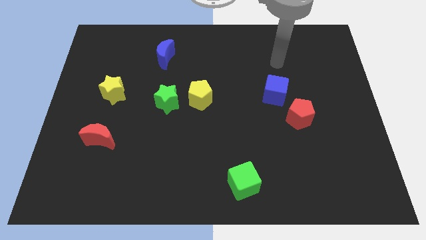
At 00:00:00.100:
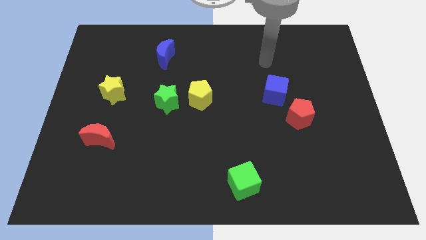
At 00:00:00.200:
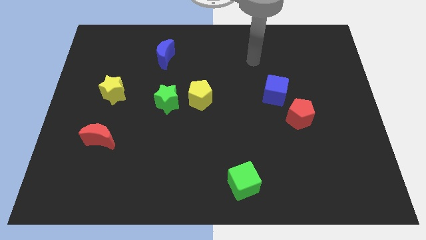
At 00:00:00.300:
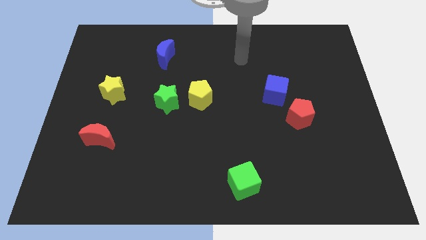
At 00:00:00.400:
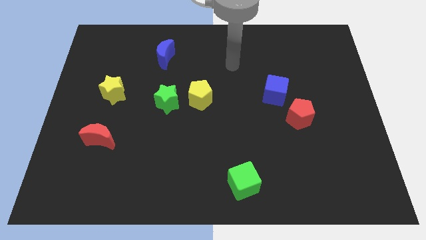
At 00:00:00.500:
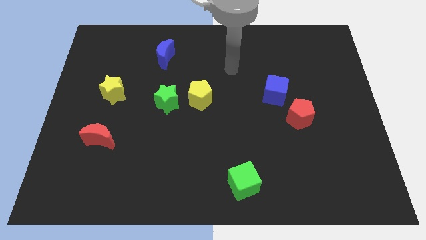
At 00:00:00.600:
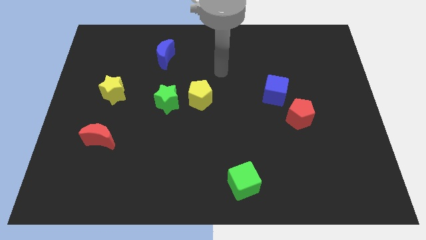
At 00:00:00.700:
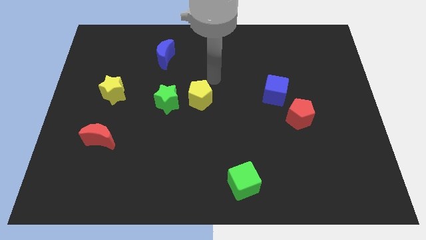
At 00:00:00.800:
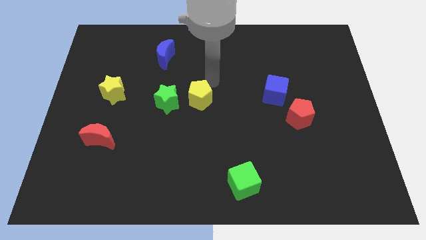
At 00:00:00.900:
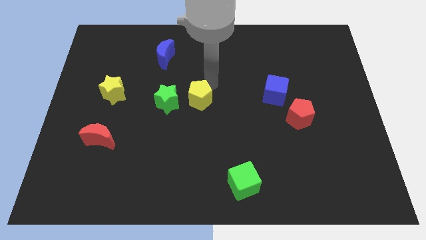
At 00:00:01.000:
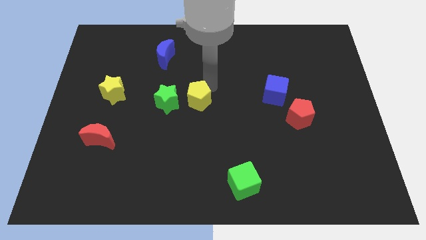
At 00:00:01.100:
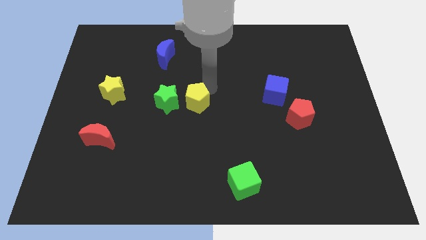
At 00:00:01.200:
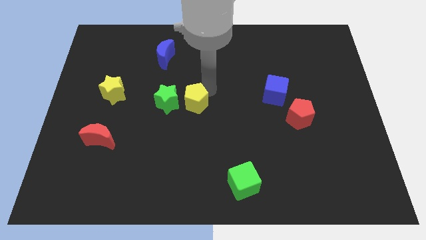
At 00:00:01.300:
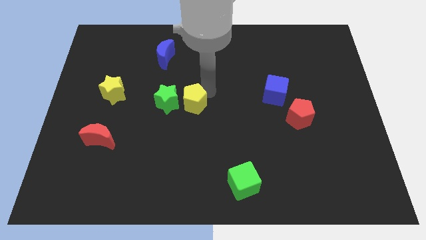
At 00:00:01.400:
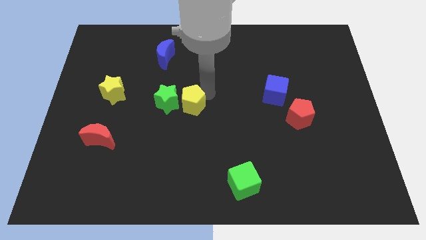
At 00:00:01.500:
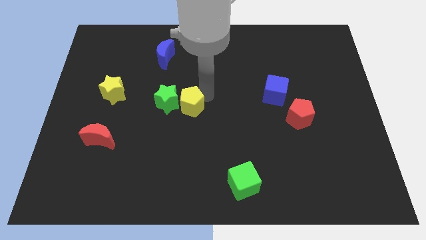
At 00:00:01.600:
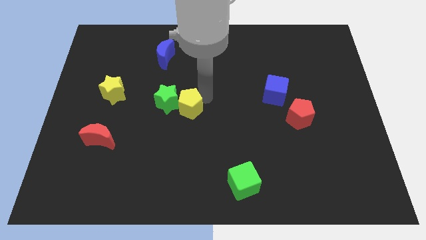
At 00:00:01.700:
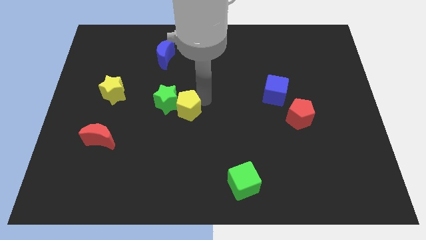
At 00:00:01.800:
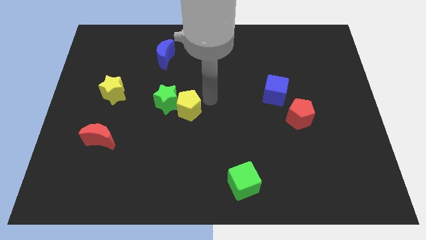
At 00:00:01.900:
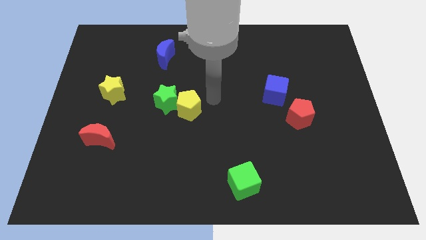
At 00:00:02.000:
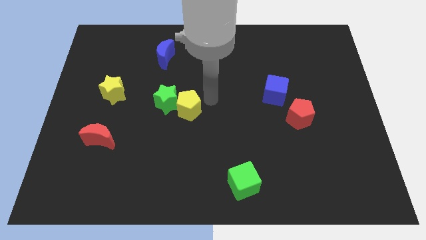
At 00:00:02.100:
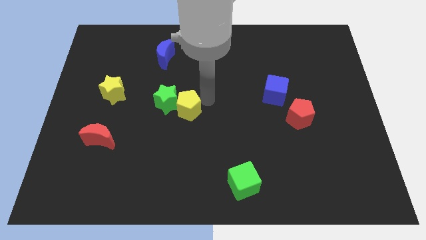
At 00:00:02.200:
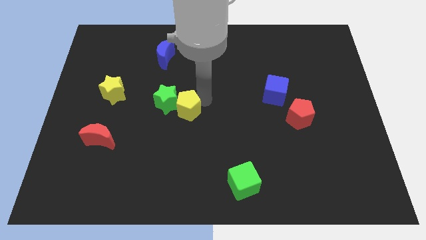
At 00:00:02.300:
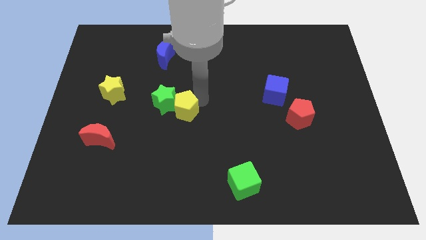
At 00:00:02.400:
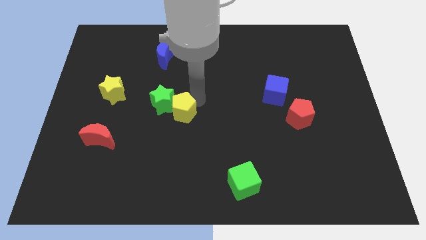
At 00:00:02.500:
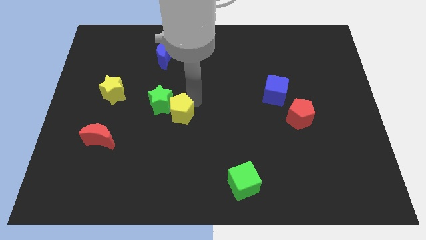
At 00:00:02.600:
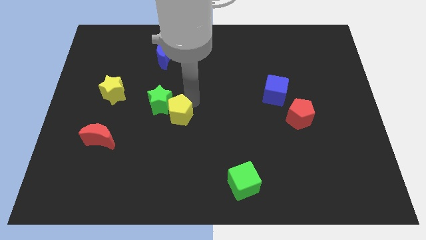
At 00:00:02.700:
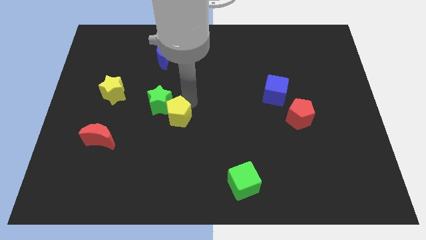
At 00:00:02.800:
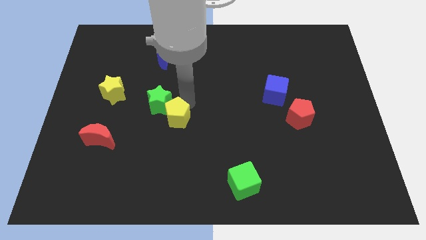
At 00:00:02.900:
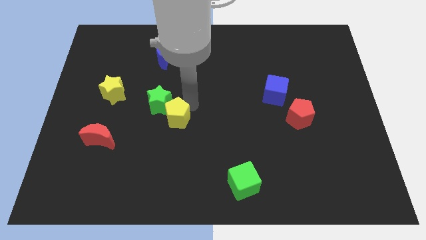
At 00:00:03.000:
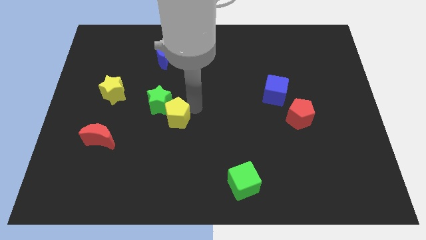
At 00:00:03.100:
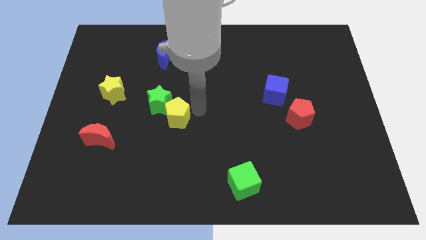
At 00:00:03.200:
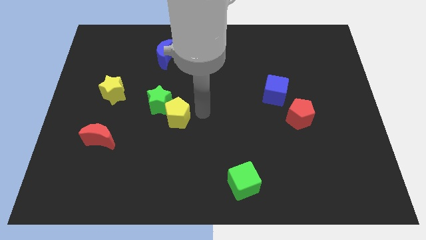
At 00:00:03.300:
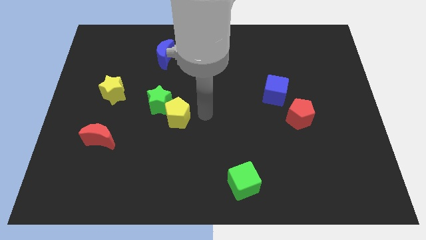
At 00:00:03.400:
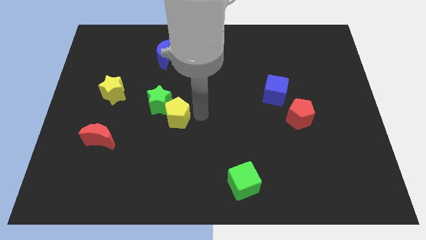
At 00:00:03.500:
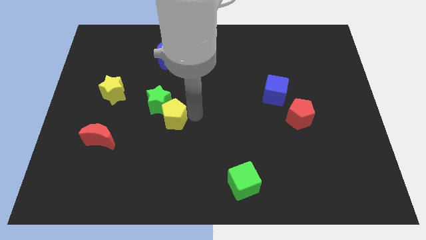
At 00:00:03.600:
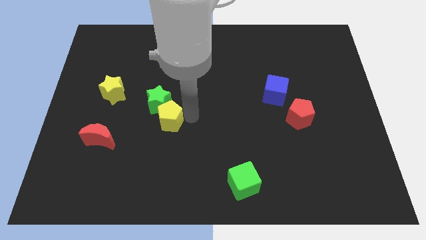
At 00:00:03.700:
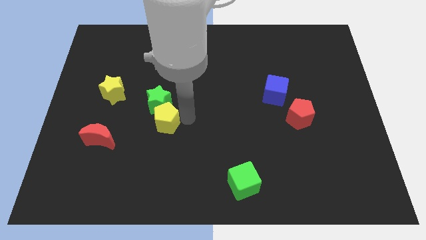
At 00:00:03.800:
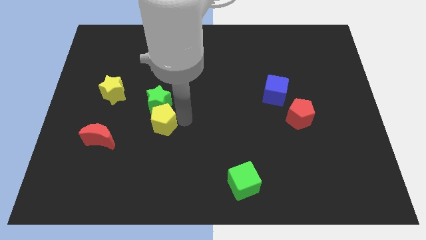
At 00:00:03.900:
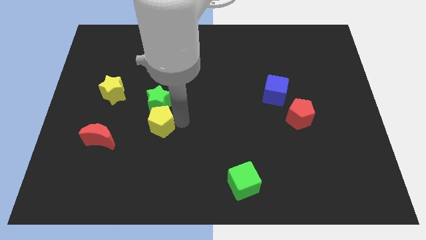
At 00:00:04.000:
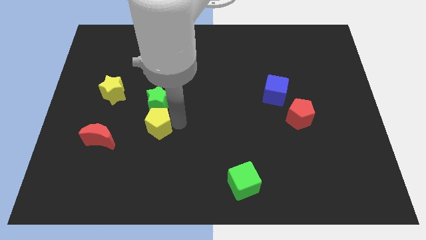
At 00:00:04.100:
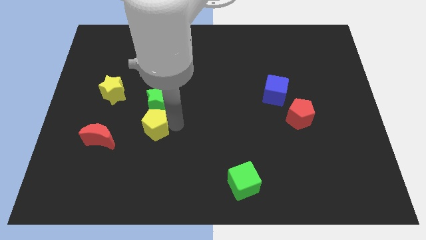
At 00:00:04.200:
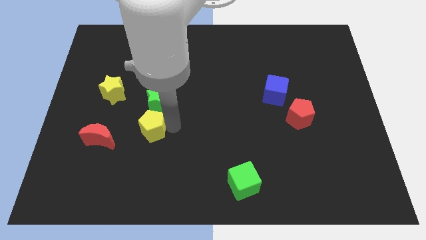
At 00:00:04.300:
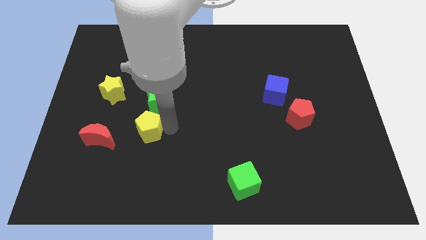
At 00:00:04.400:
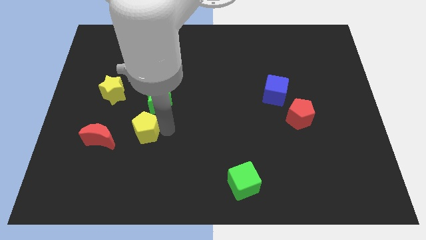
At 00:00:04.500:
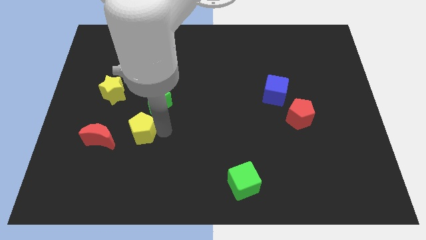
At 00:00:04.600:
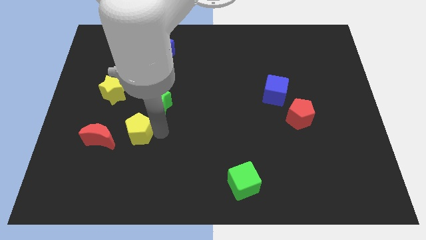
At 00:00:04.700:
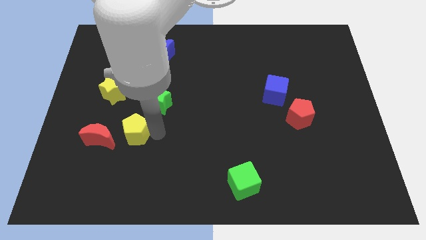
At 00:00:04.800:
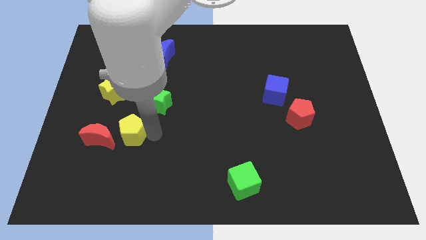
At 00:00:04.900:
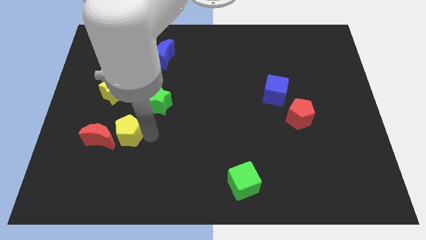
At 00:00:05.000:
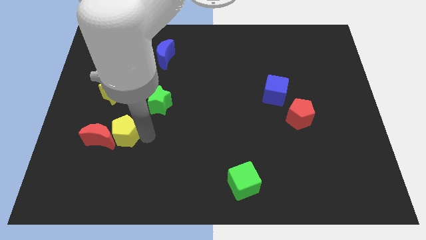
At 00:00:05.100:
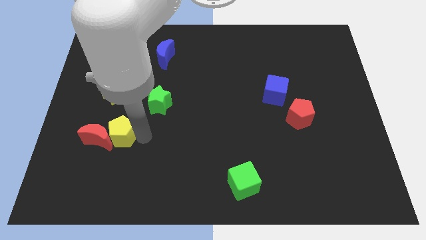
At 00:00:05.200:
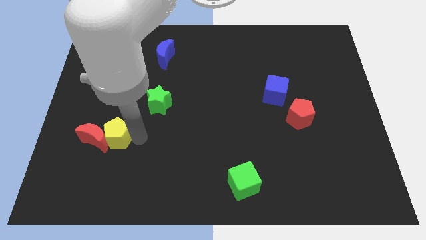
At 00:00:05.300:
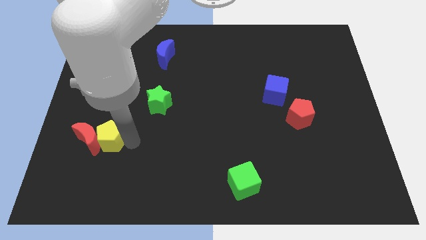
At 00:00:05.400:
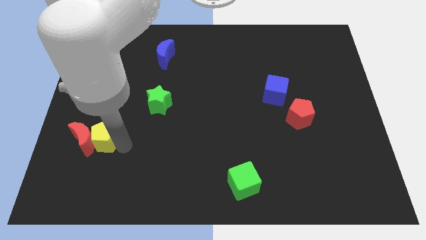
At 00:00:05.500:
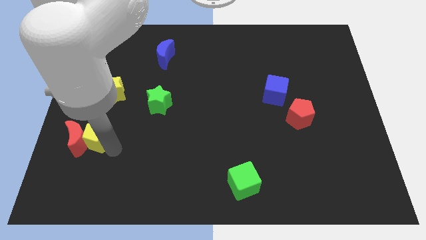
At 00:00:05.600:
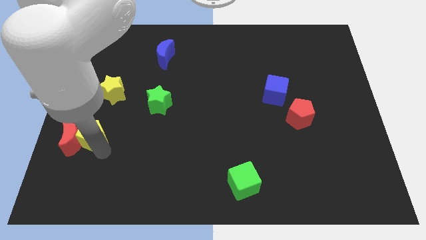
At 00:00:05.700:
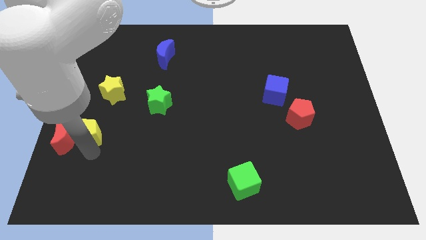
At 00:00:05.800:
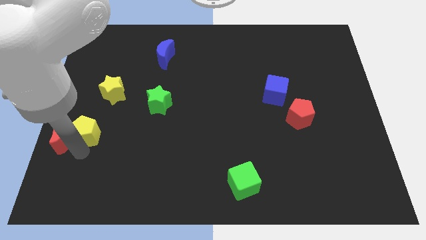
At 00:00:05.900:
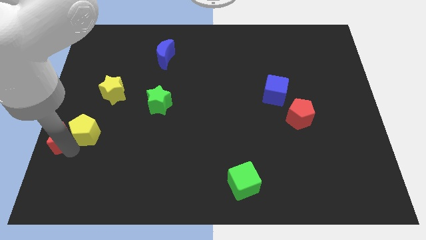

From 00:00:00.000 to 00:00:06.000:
slide the yellow pentagon to the left side of the board

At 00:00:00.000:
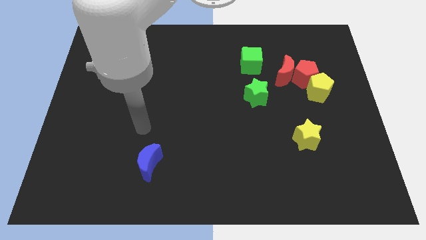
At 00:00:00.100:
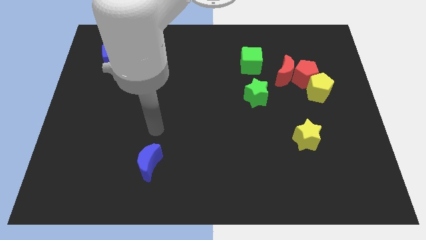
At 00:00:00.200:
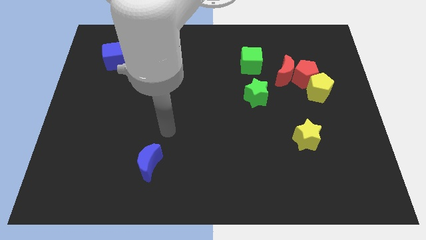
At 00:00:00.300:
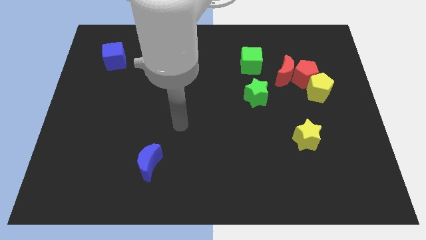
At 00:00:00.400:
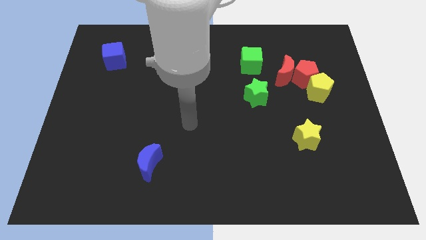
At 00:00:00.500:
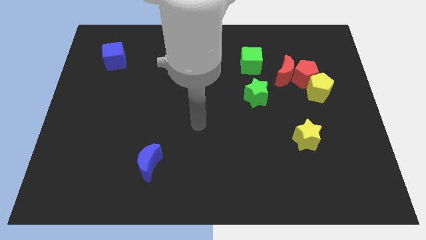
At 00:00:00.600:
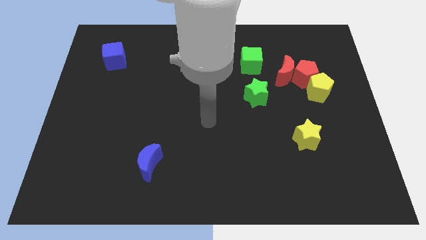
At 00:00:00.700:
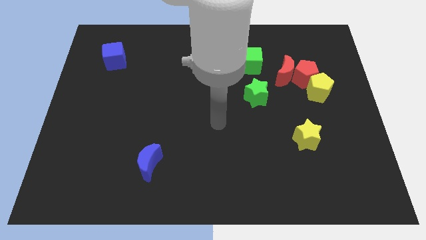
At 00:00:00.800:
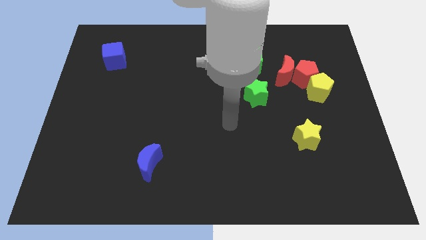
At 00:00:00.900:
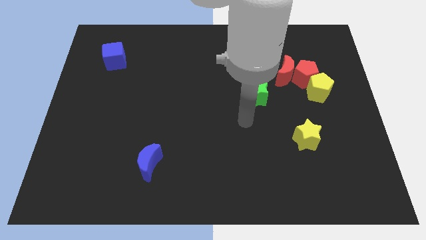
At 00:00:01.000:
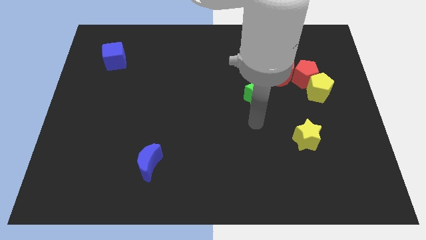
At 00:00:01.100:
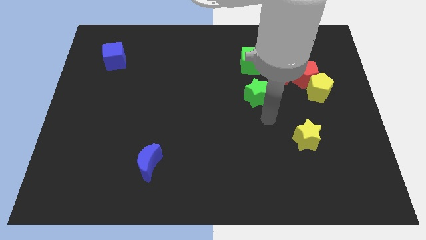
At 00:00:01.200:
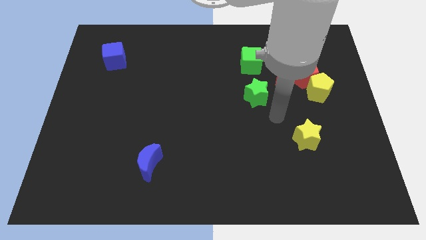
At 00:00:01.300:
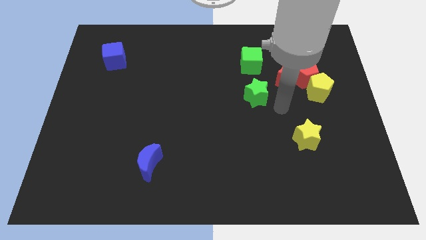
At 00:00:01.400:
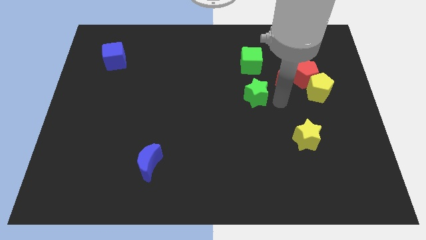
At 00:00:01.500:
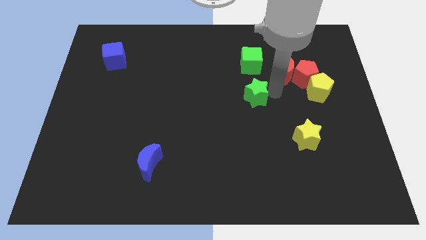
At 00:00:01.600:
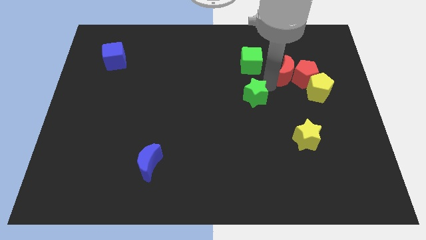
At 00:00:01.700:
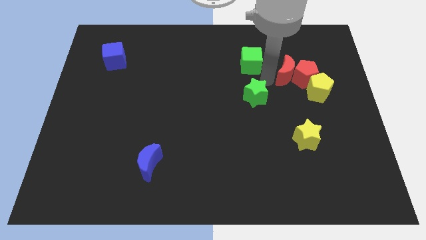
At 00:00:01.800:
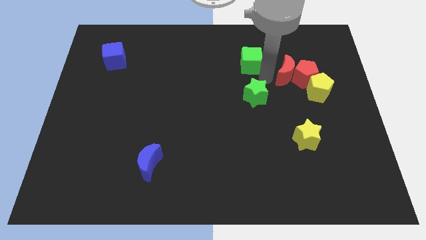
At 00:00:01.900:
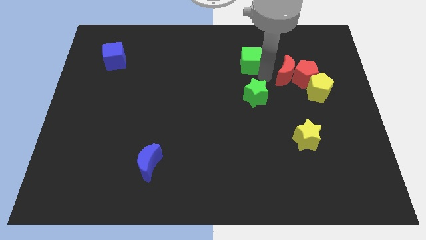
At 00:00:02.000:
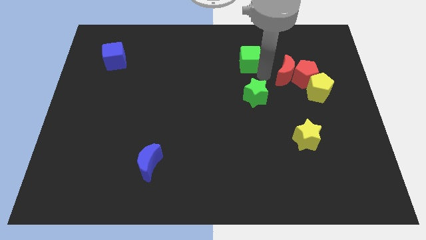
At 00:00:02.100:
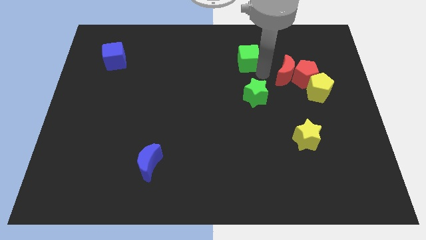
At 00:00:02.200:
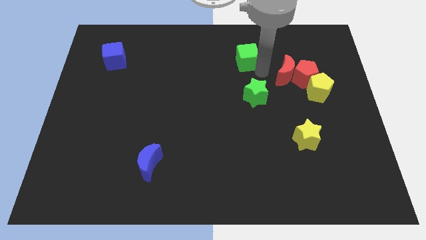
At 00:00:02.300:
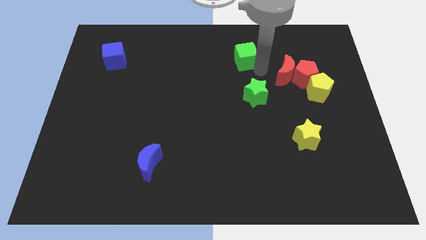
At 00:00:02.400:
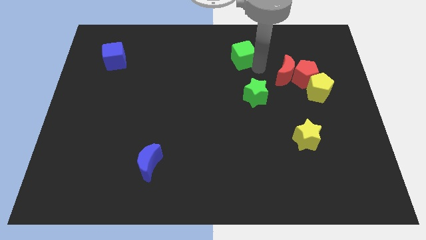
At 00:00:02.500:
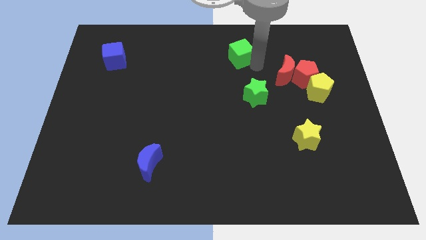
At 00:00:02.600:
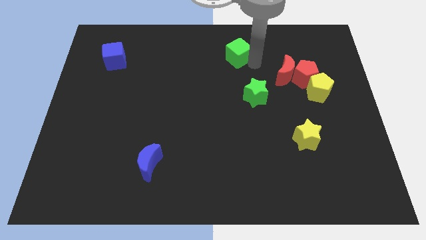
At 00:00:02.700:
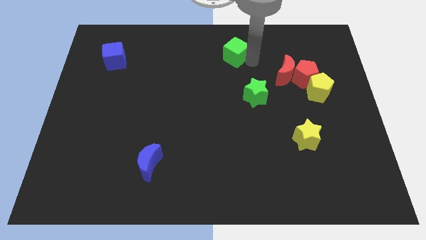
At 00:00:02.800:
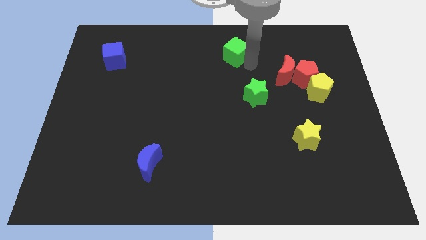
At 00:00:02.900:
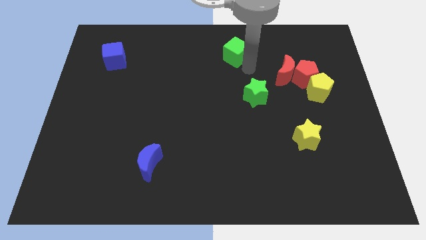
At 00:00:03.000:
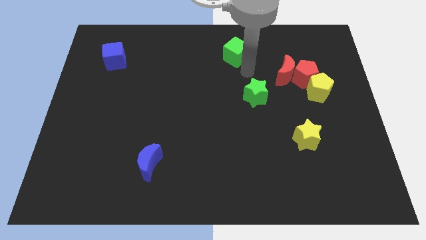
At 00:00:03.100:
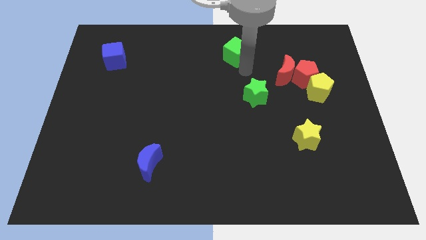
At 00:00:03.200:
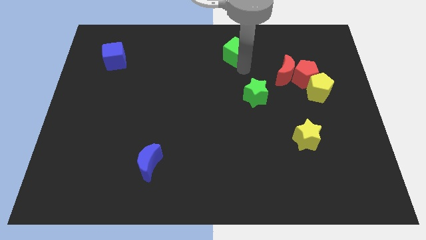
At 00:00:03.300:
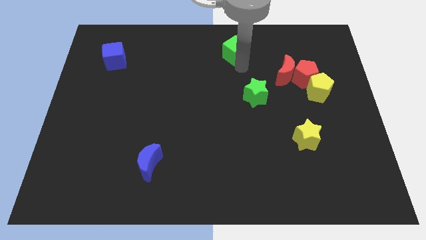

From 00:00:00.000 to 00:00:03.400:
put the green cube to the towards your base
